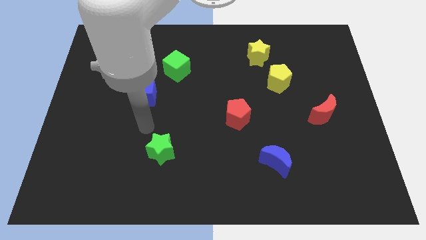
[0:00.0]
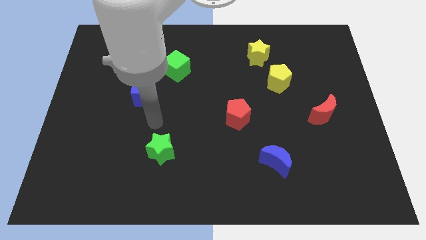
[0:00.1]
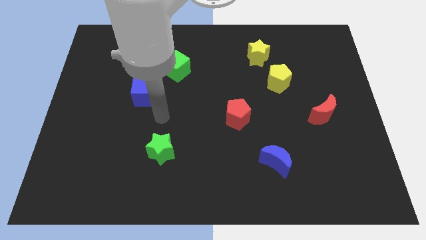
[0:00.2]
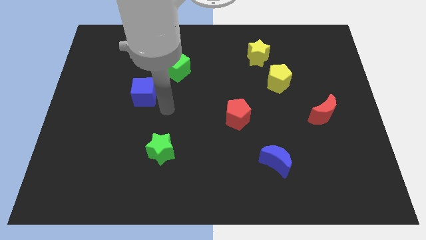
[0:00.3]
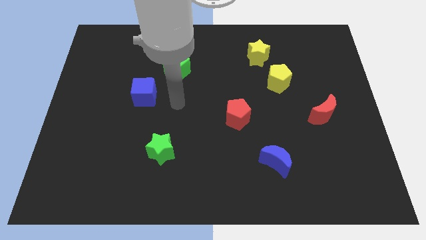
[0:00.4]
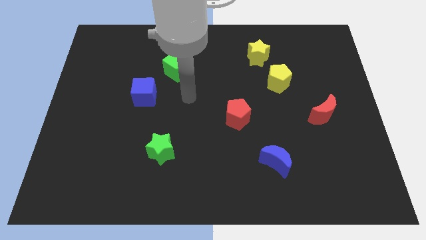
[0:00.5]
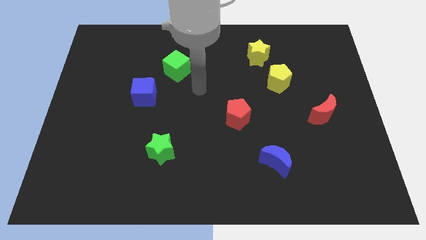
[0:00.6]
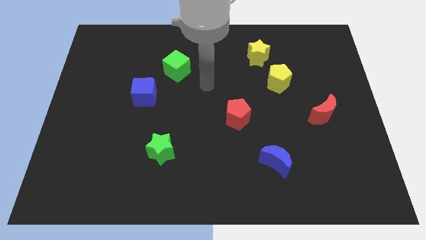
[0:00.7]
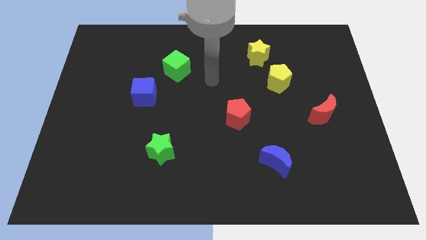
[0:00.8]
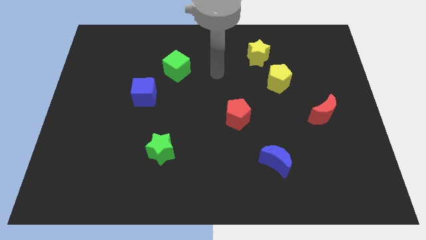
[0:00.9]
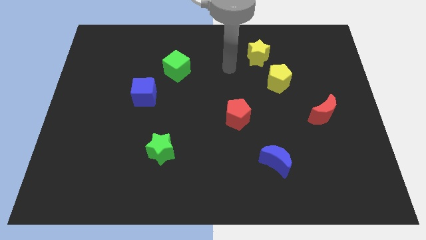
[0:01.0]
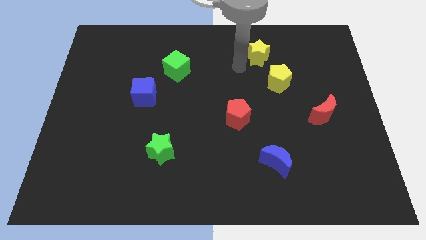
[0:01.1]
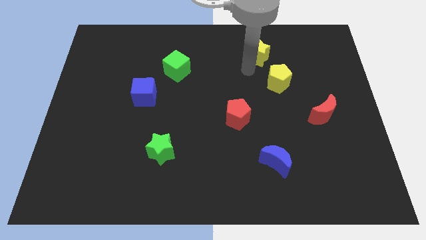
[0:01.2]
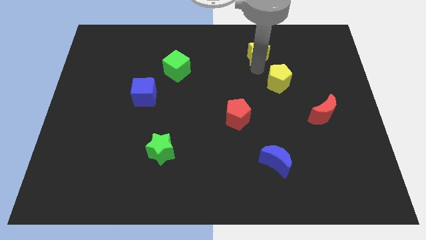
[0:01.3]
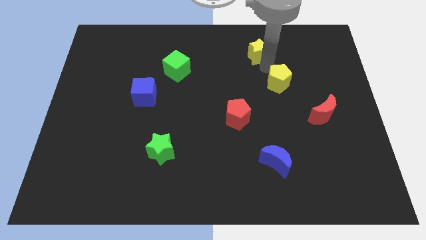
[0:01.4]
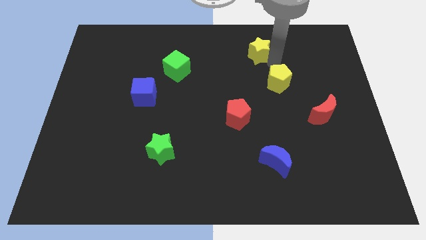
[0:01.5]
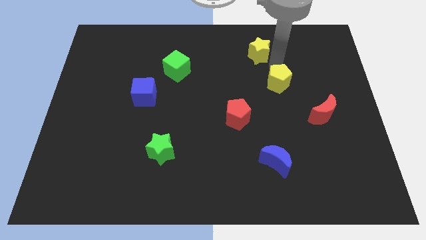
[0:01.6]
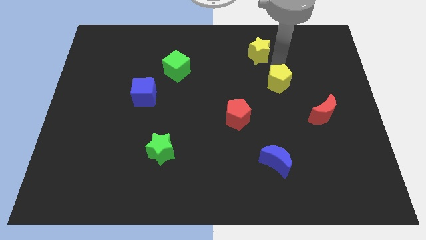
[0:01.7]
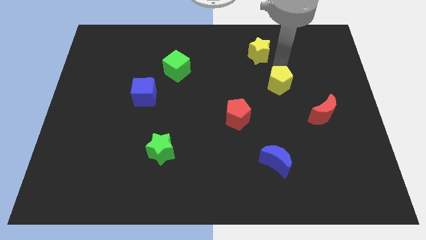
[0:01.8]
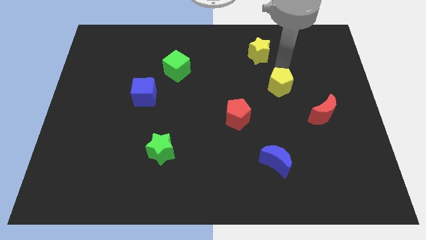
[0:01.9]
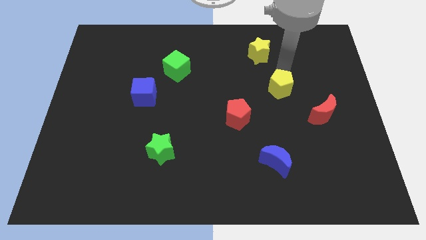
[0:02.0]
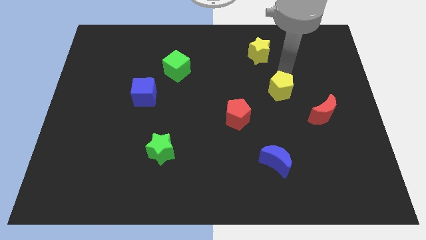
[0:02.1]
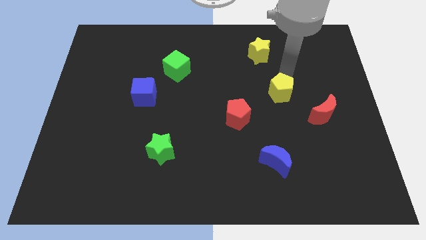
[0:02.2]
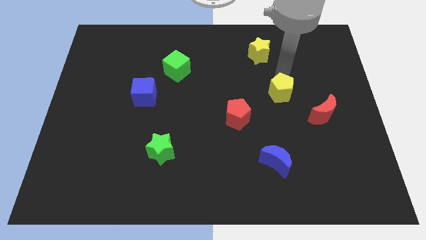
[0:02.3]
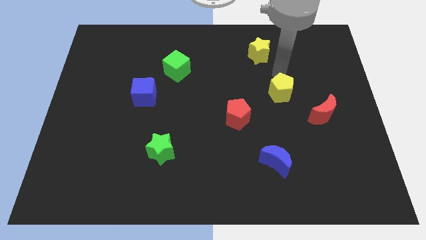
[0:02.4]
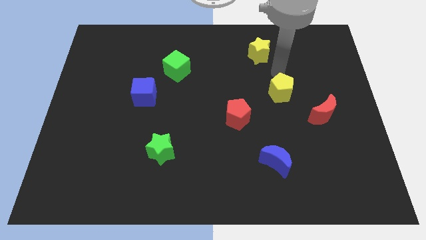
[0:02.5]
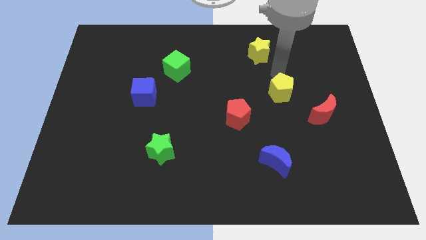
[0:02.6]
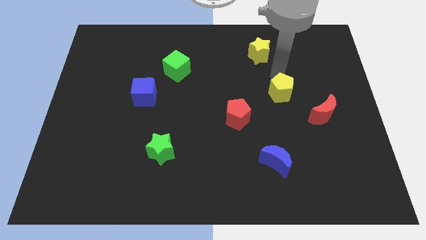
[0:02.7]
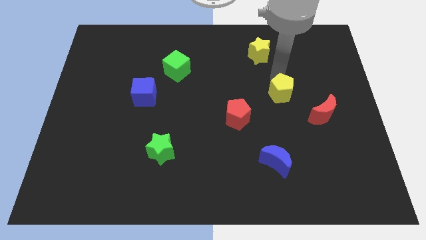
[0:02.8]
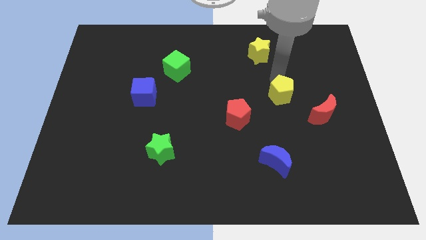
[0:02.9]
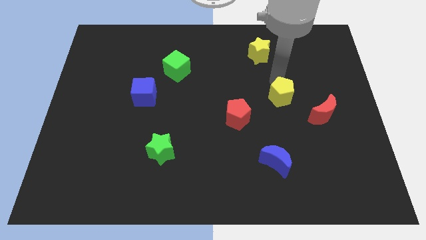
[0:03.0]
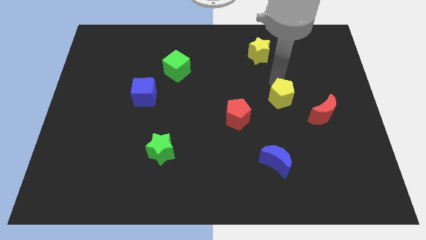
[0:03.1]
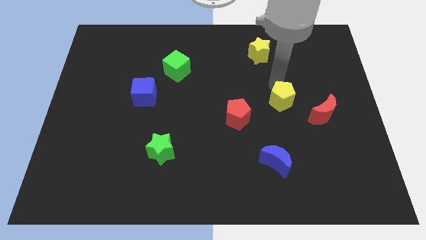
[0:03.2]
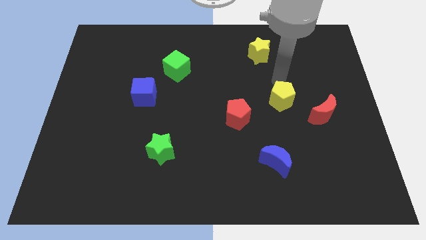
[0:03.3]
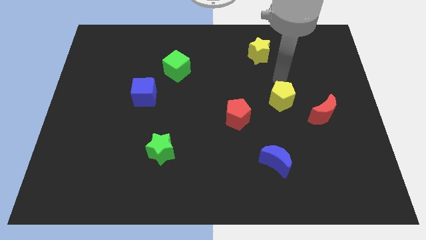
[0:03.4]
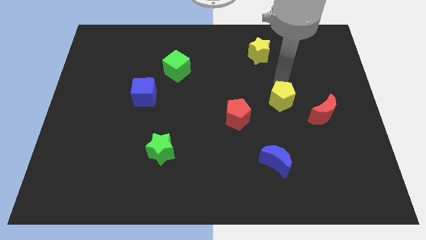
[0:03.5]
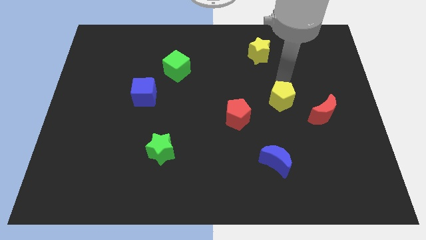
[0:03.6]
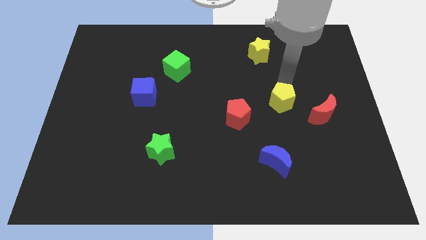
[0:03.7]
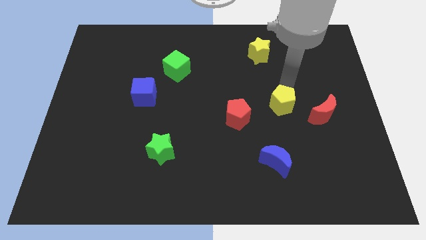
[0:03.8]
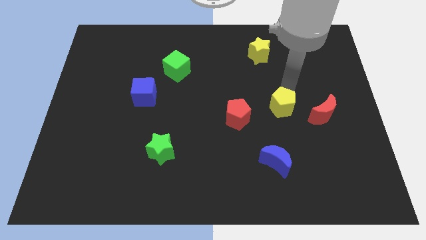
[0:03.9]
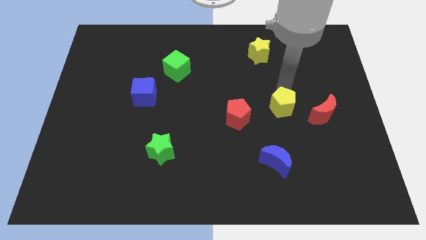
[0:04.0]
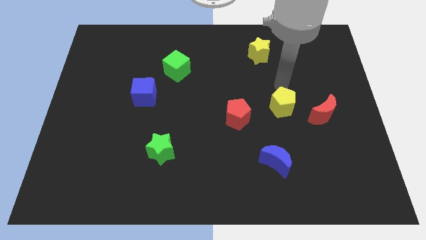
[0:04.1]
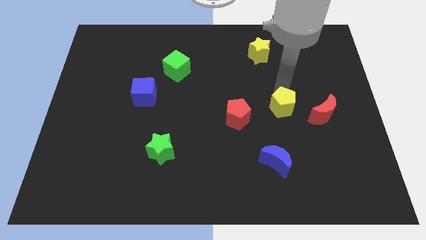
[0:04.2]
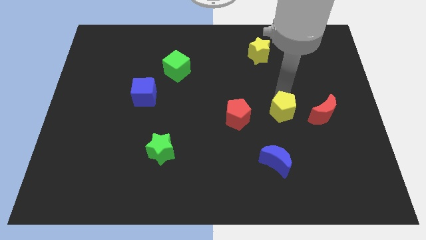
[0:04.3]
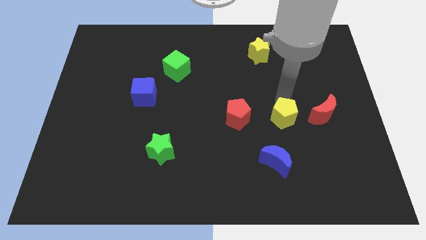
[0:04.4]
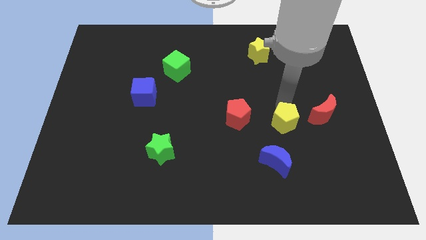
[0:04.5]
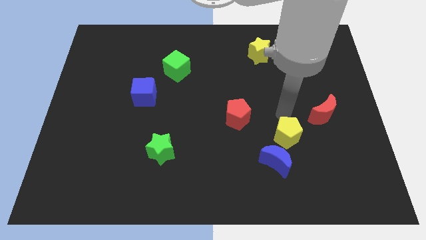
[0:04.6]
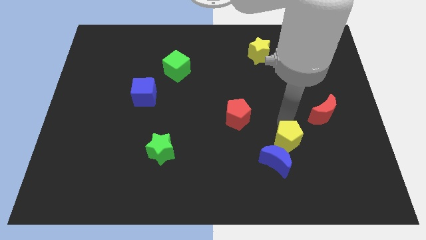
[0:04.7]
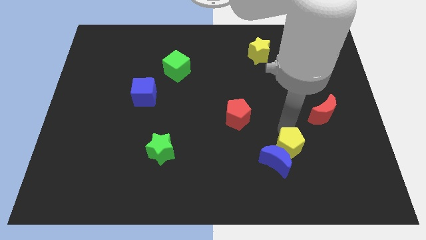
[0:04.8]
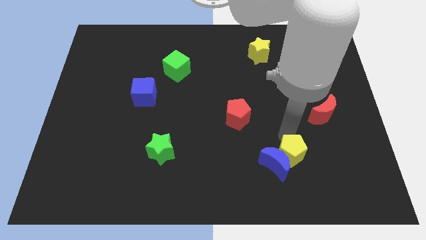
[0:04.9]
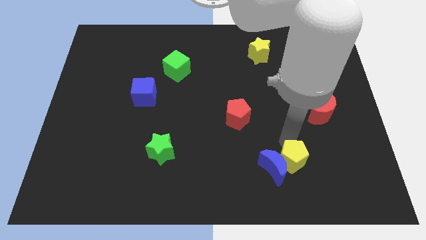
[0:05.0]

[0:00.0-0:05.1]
slide the yellow pentagon to the bottom right side of the blue moon

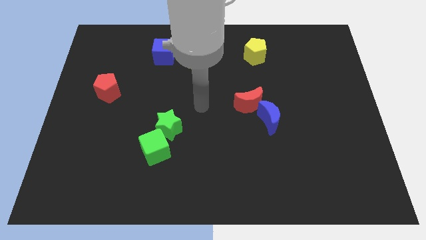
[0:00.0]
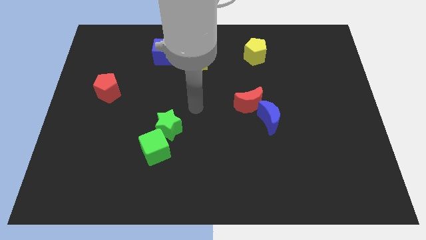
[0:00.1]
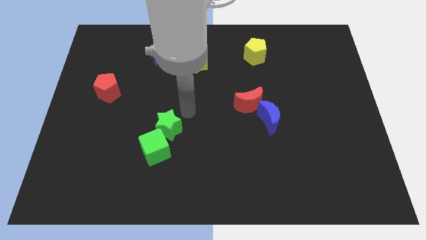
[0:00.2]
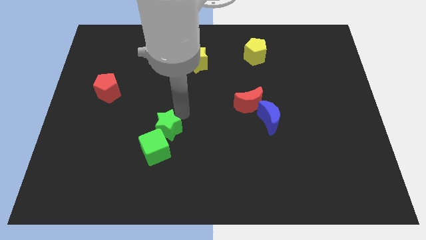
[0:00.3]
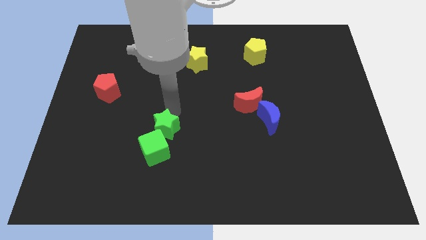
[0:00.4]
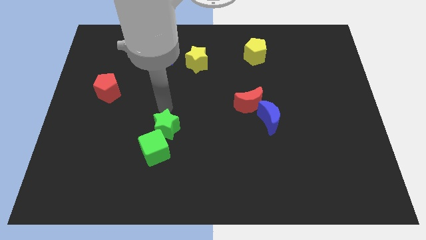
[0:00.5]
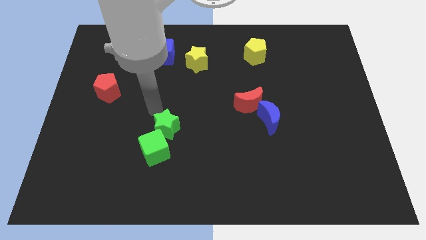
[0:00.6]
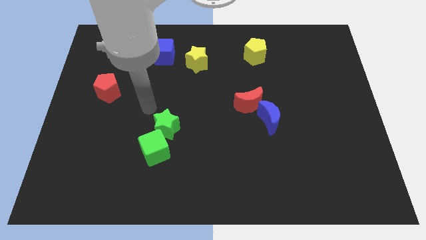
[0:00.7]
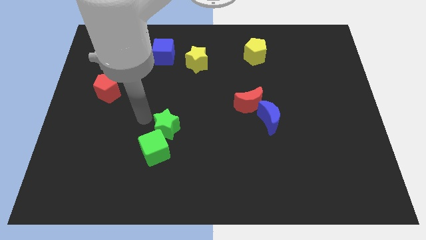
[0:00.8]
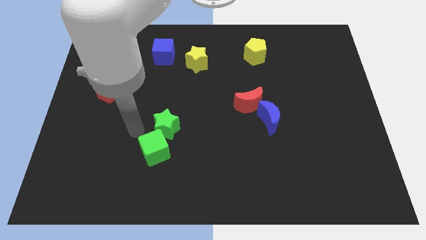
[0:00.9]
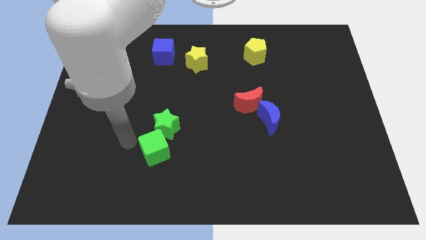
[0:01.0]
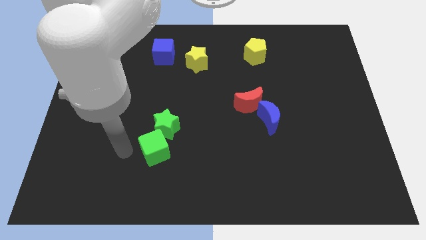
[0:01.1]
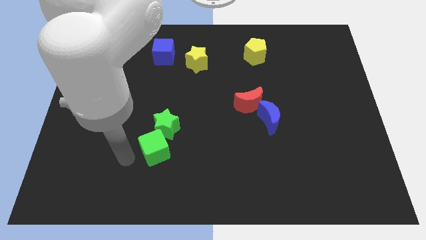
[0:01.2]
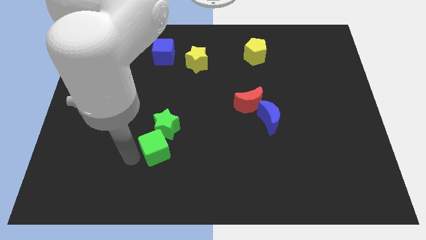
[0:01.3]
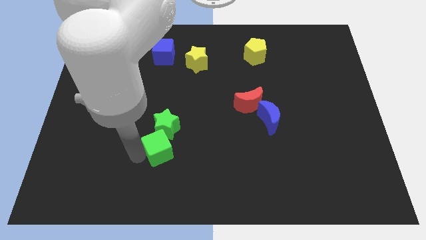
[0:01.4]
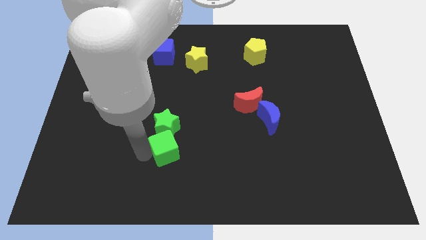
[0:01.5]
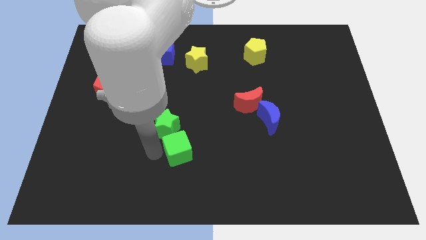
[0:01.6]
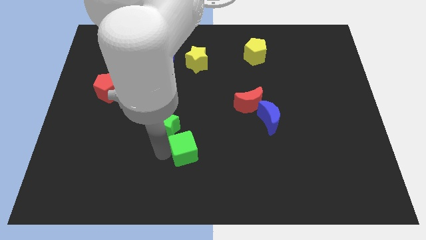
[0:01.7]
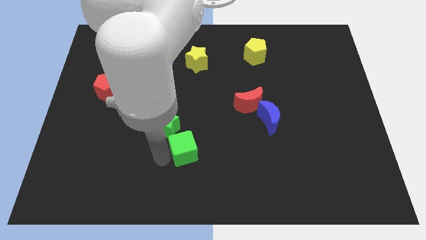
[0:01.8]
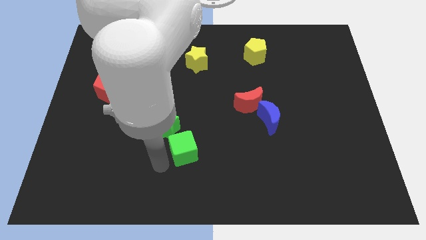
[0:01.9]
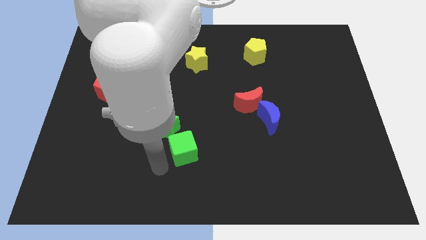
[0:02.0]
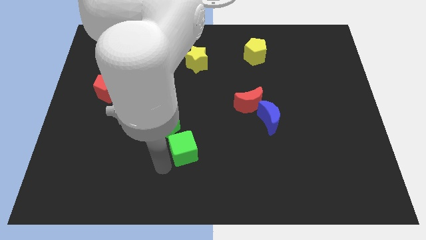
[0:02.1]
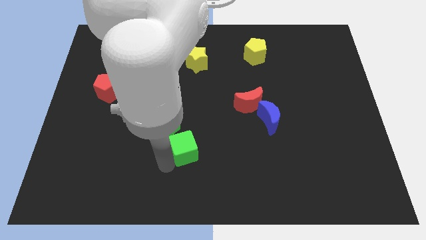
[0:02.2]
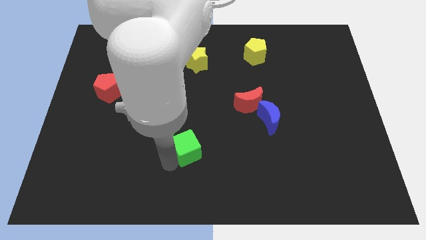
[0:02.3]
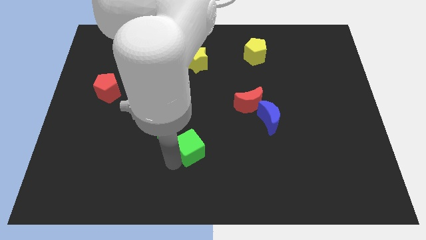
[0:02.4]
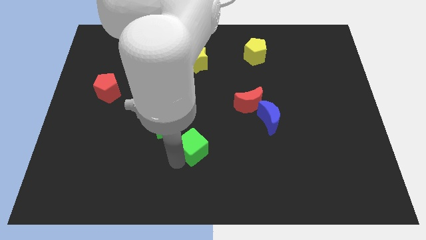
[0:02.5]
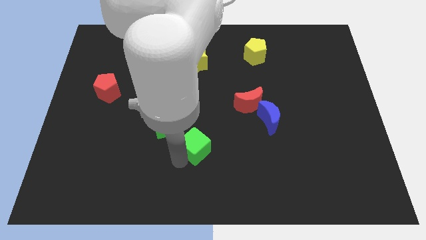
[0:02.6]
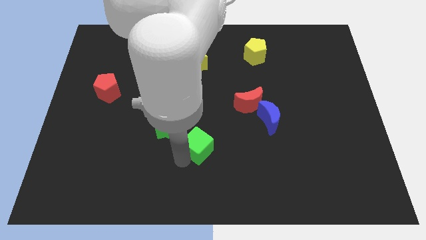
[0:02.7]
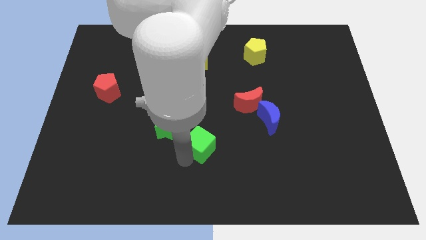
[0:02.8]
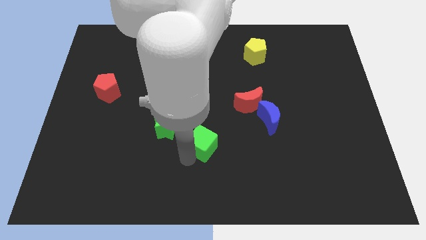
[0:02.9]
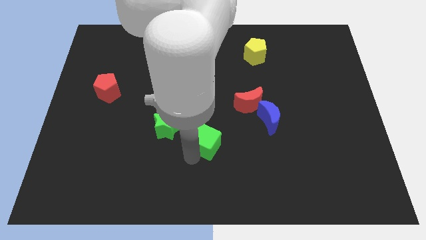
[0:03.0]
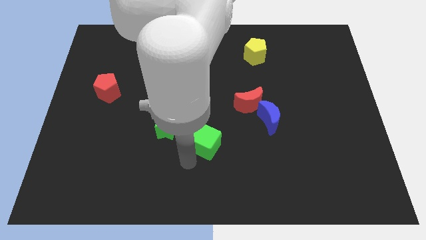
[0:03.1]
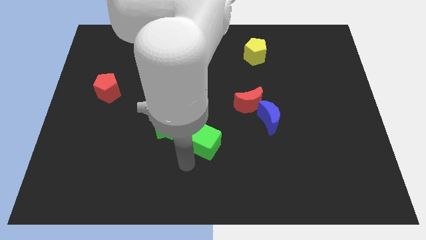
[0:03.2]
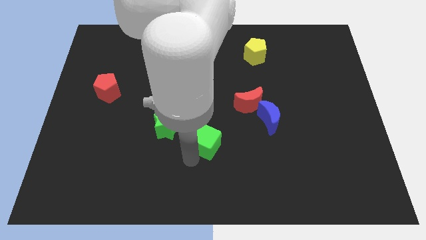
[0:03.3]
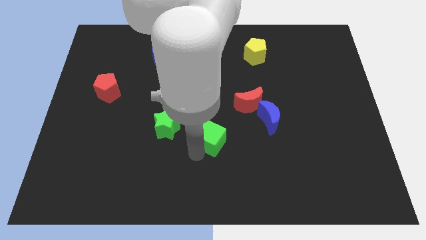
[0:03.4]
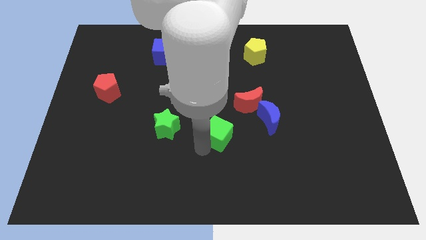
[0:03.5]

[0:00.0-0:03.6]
move the green cube to the bottom left side of the red moon
